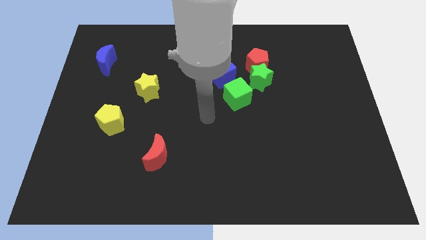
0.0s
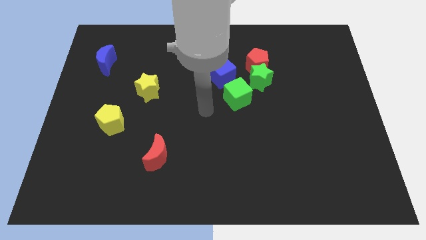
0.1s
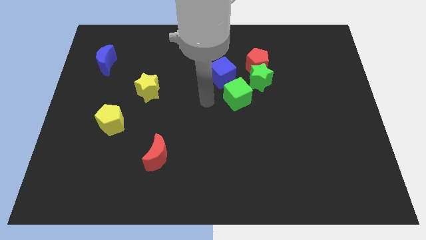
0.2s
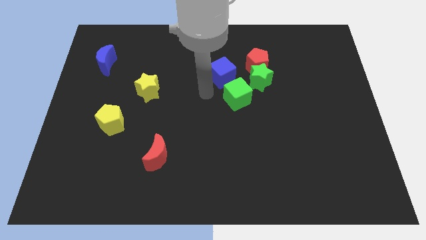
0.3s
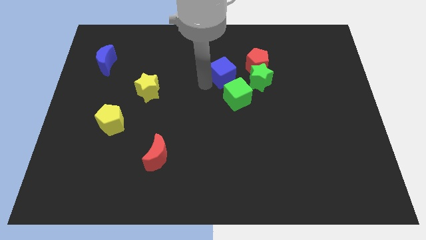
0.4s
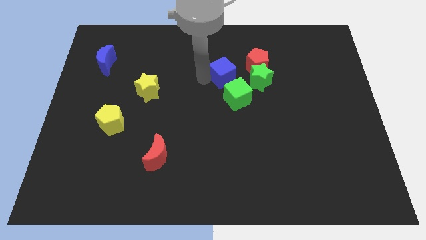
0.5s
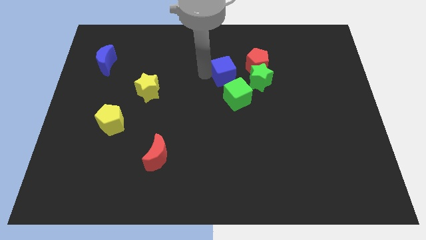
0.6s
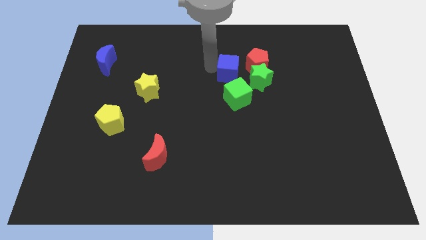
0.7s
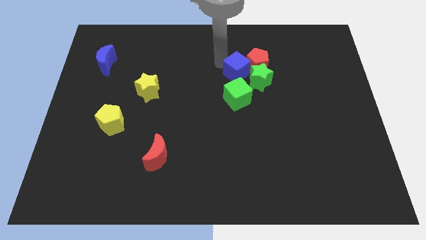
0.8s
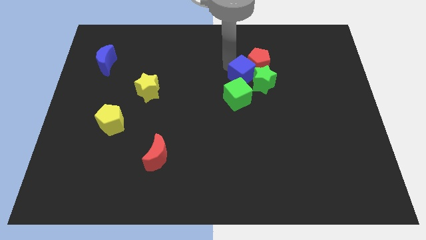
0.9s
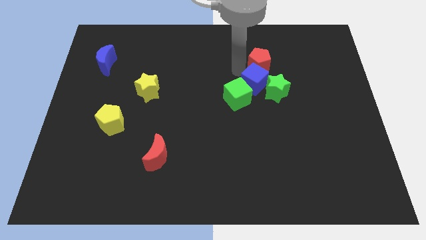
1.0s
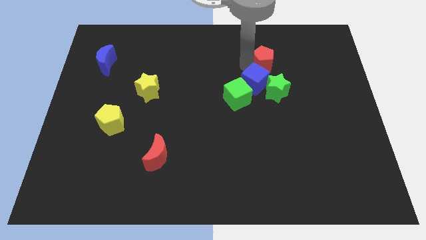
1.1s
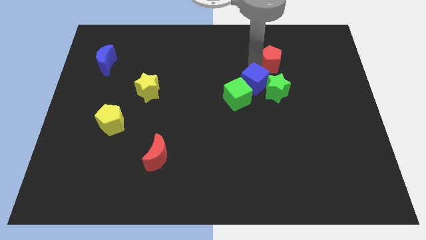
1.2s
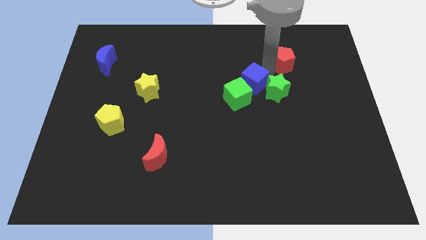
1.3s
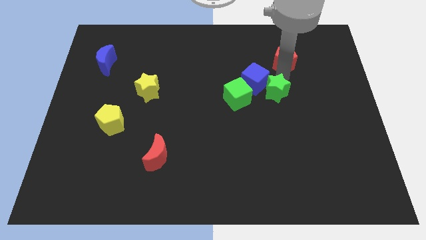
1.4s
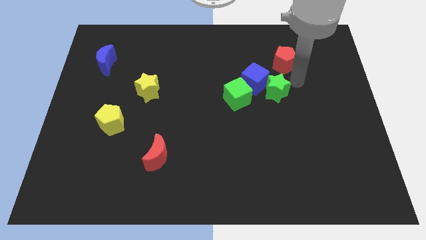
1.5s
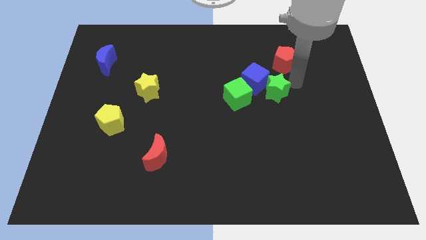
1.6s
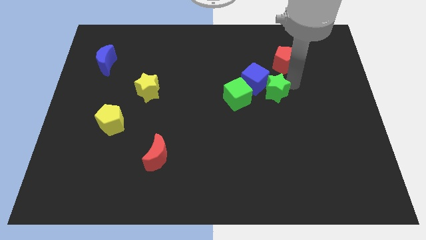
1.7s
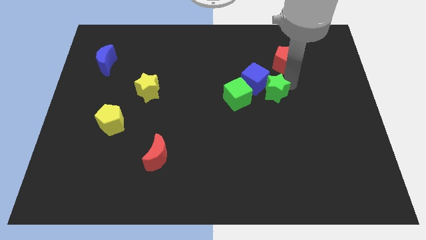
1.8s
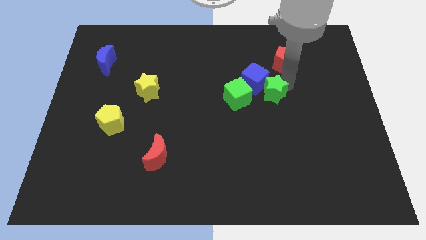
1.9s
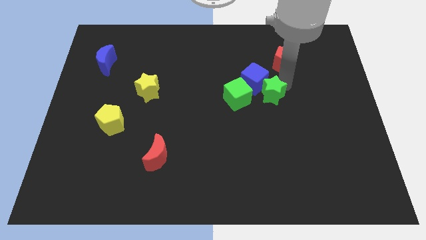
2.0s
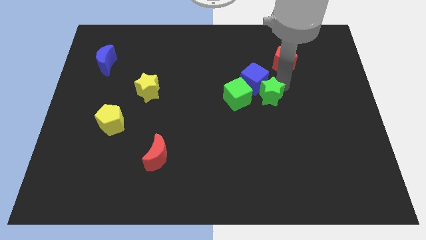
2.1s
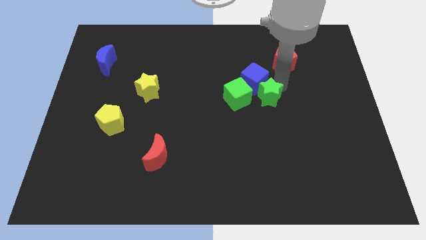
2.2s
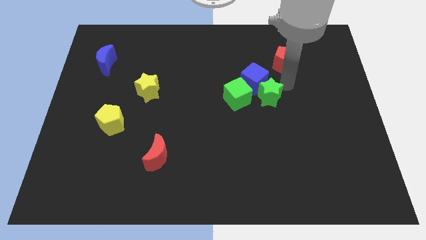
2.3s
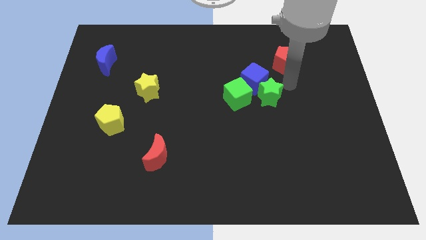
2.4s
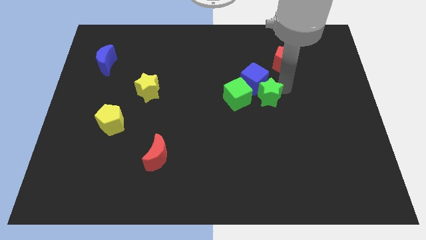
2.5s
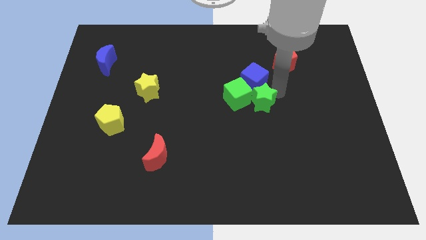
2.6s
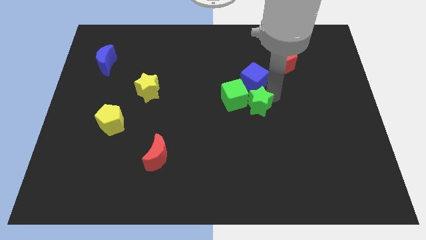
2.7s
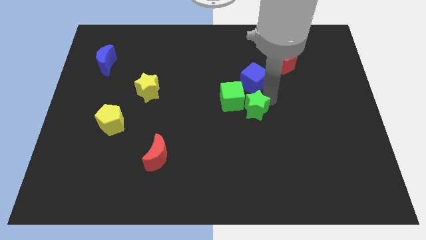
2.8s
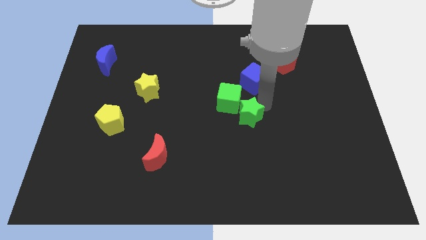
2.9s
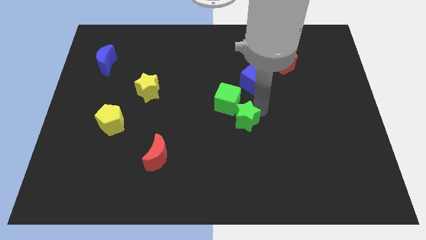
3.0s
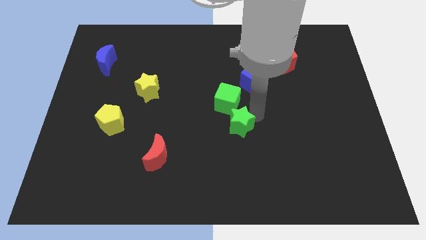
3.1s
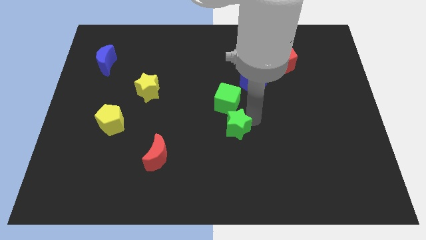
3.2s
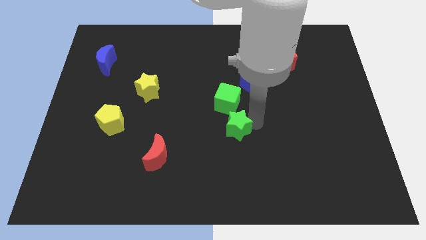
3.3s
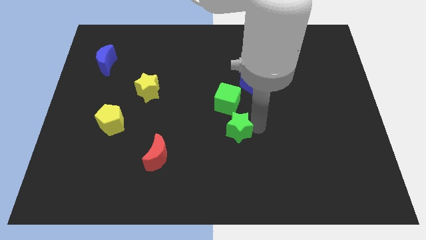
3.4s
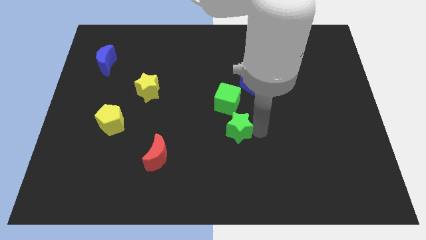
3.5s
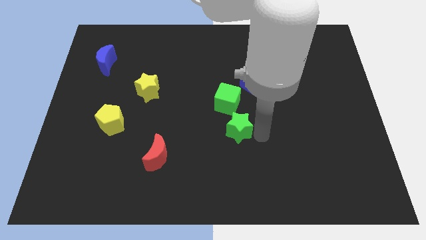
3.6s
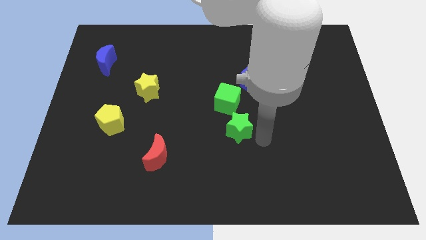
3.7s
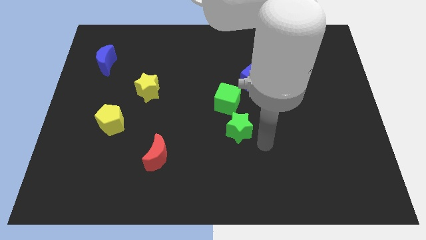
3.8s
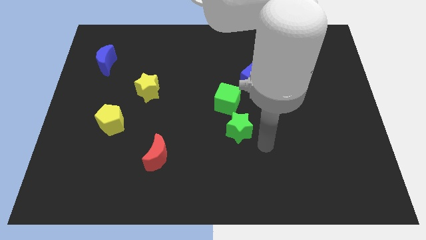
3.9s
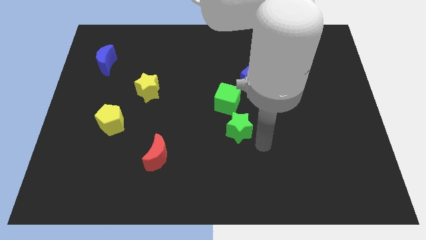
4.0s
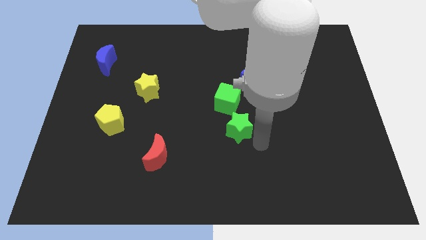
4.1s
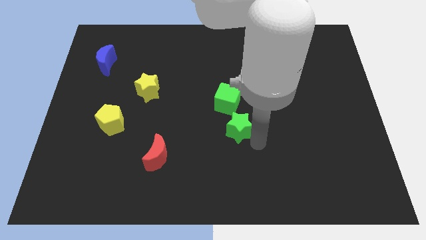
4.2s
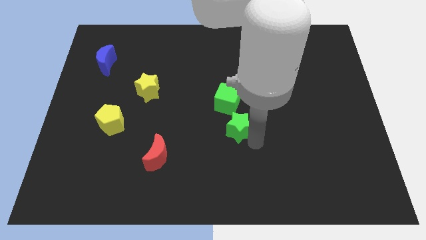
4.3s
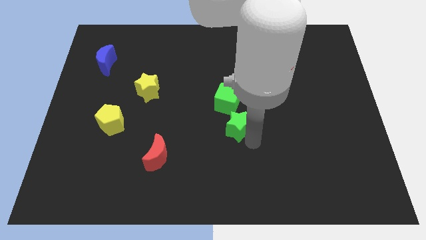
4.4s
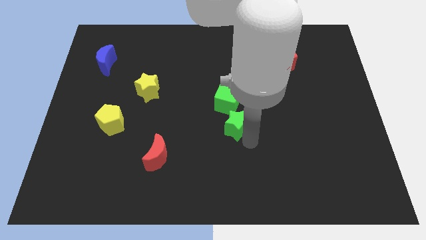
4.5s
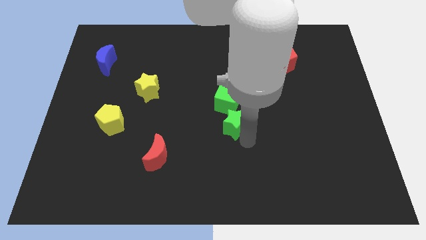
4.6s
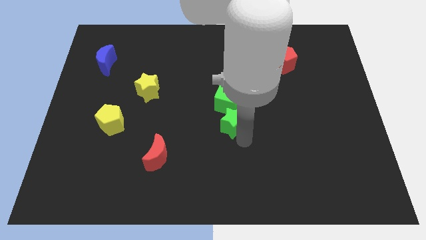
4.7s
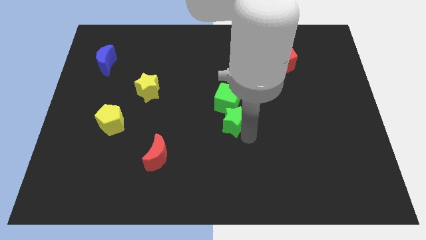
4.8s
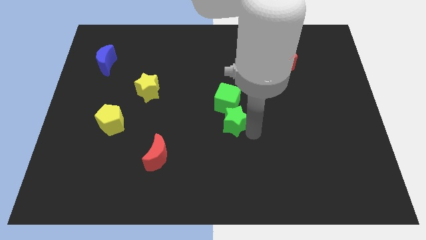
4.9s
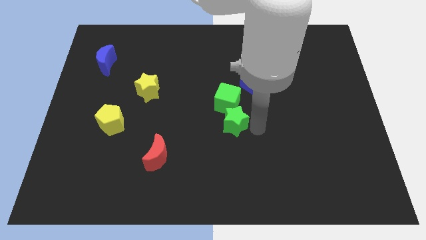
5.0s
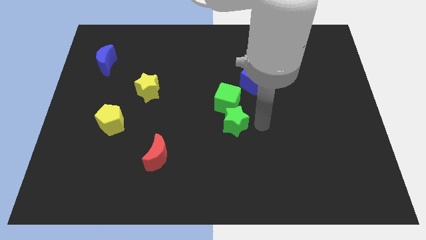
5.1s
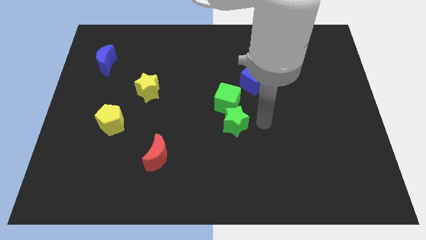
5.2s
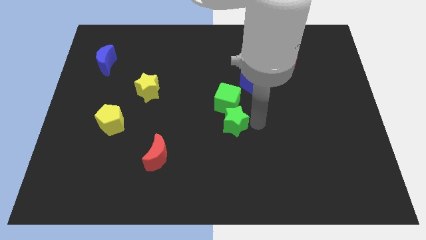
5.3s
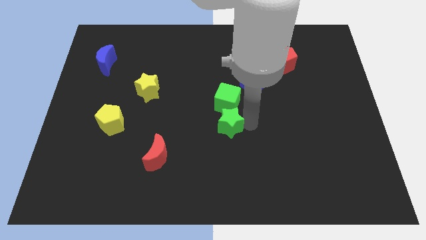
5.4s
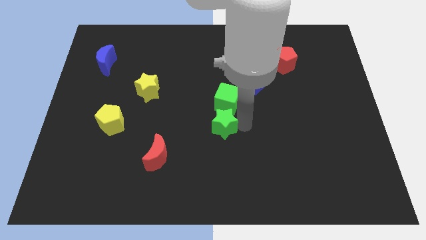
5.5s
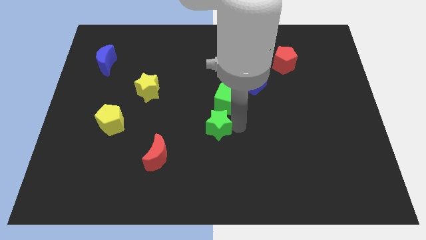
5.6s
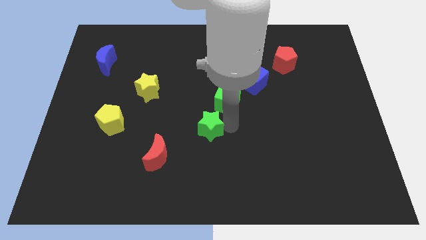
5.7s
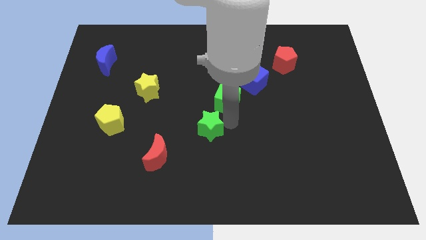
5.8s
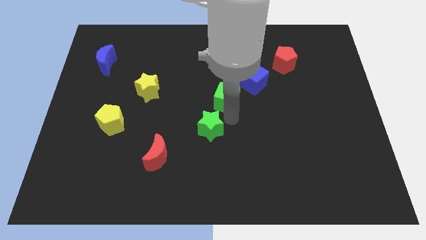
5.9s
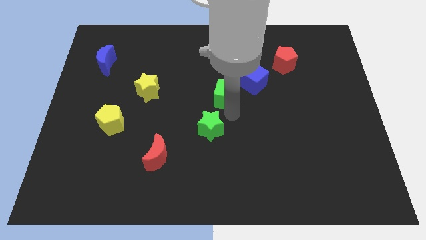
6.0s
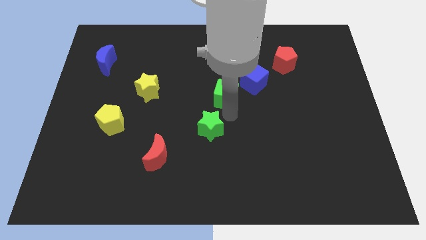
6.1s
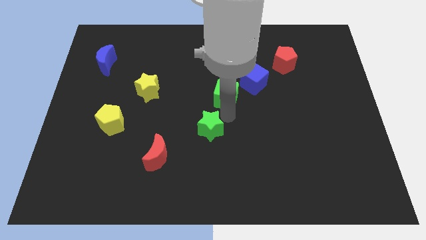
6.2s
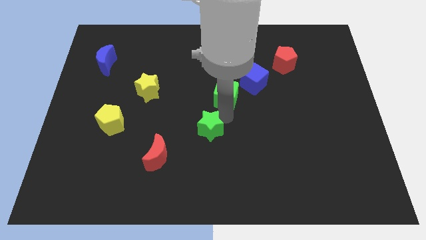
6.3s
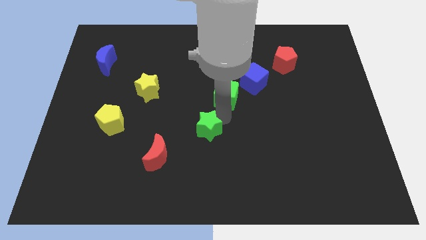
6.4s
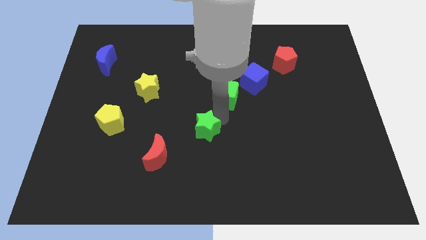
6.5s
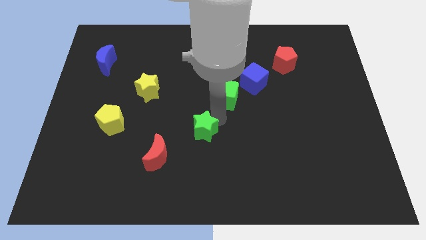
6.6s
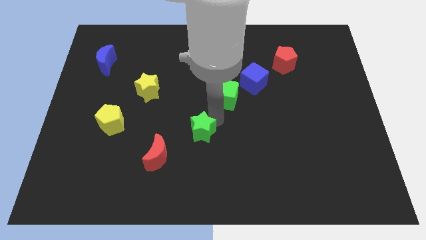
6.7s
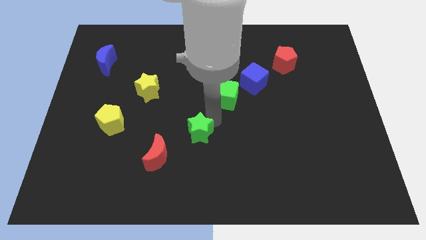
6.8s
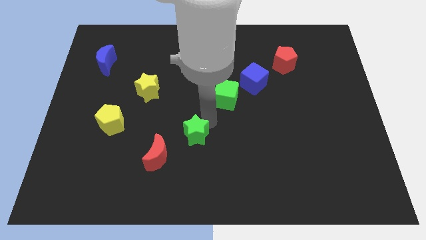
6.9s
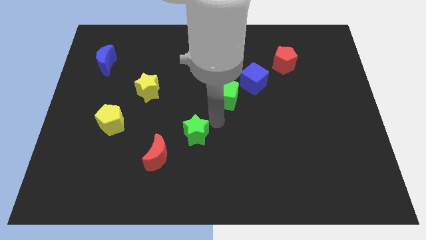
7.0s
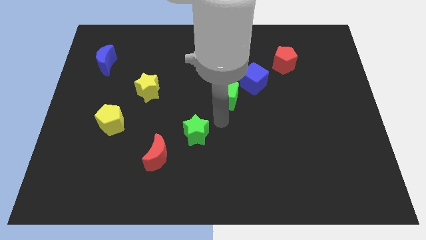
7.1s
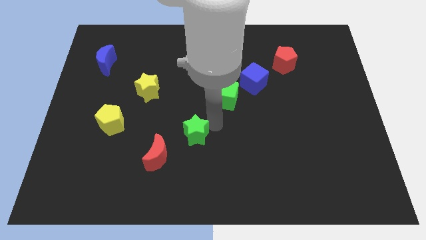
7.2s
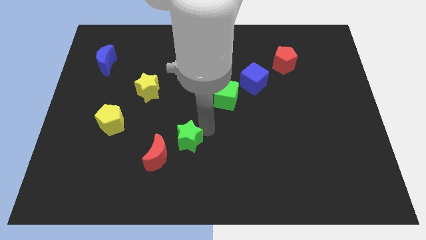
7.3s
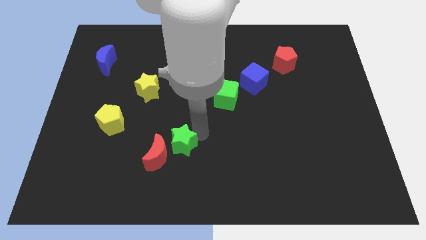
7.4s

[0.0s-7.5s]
put the green star to the red moon
